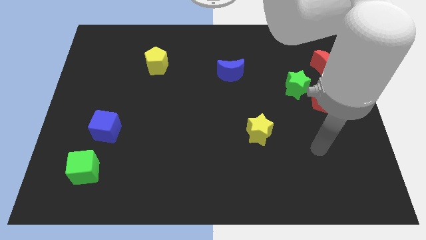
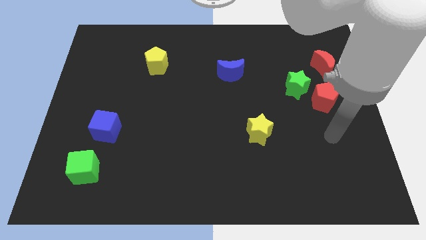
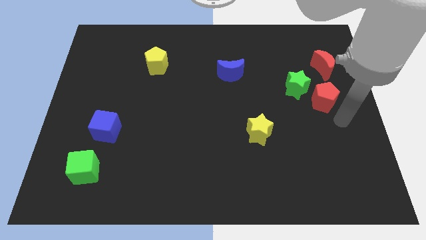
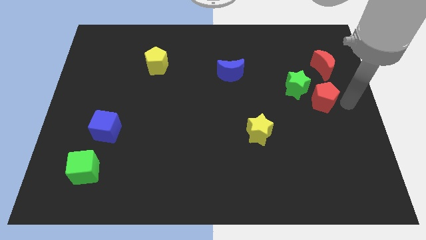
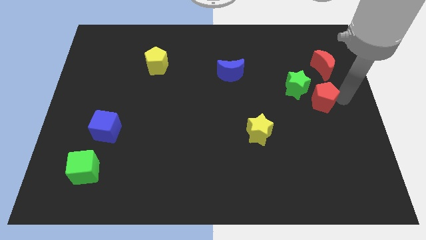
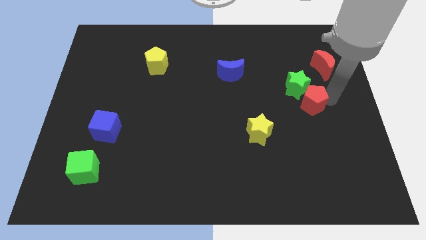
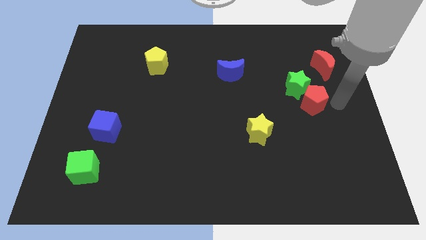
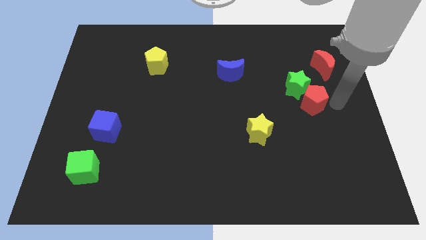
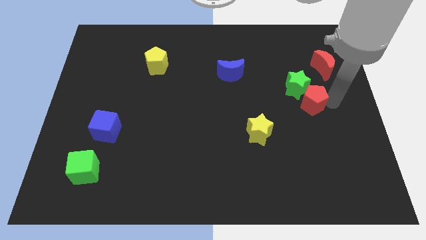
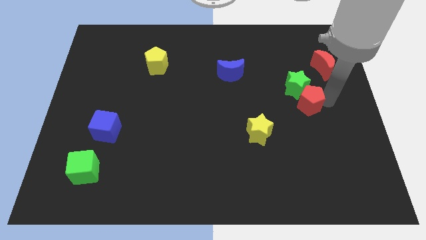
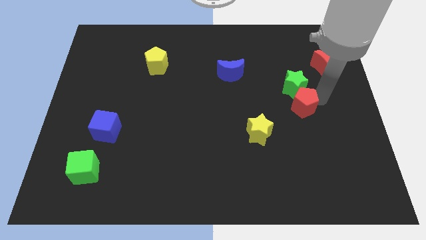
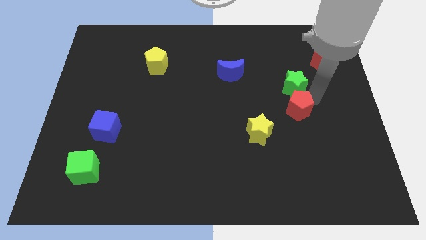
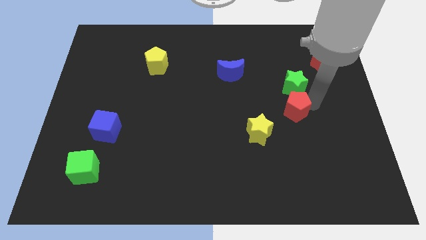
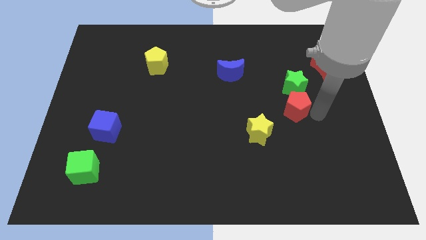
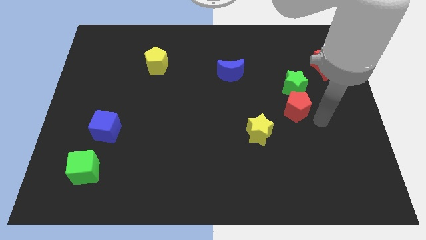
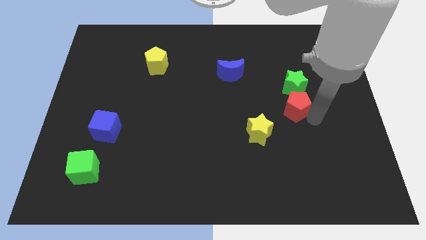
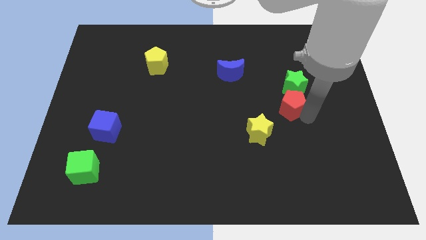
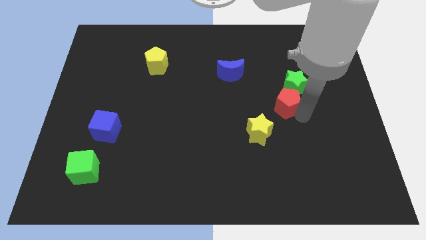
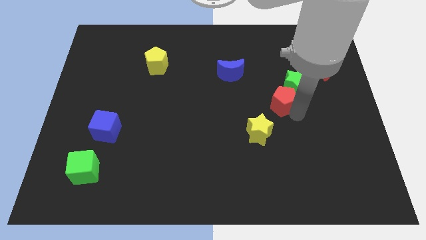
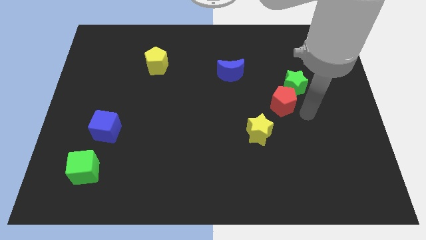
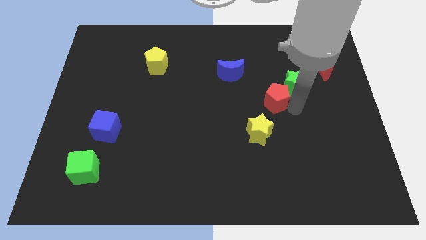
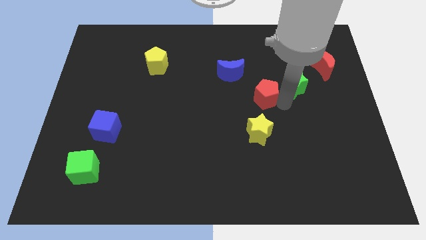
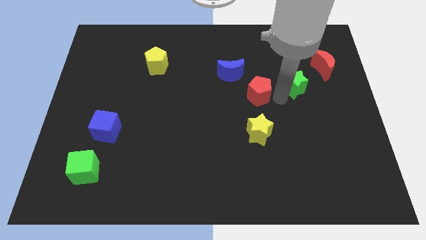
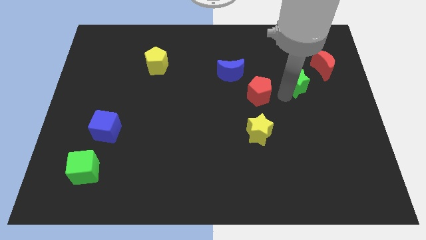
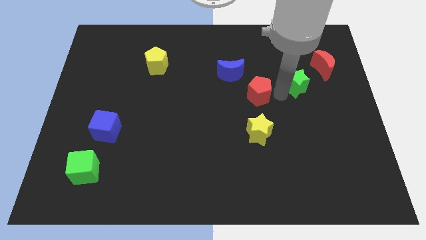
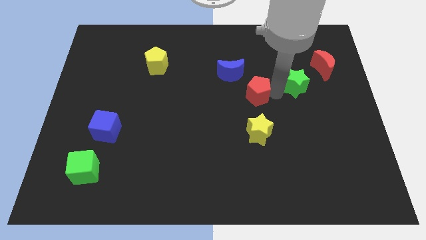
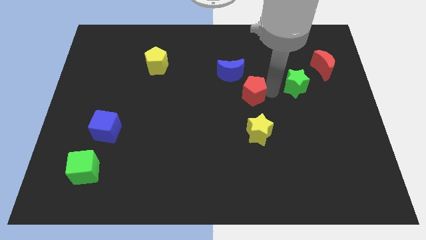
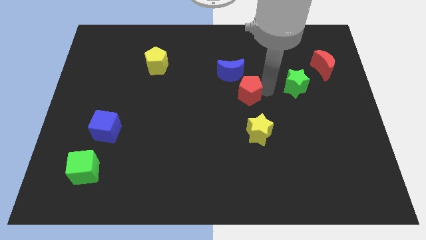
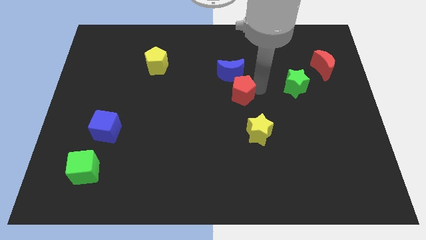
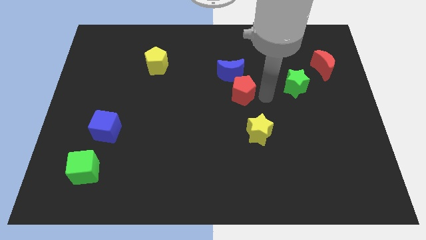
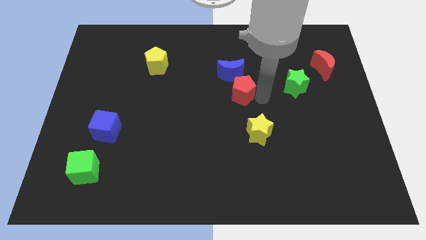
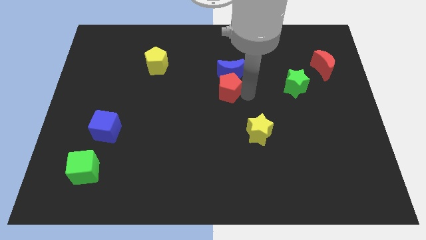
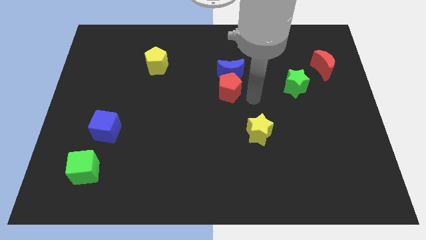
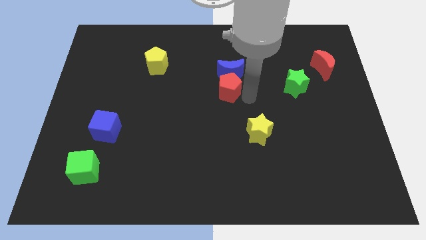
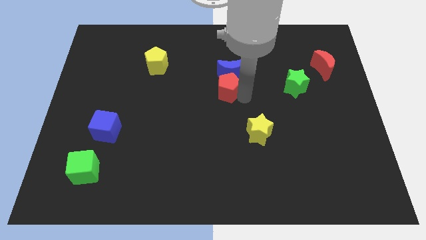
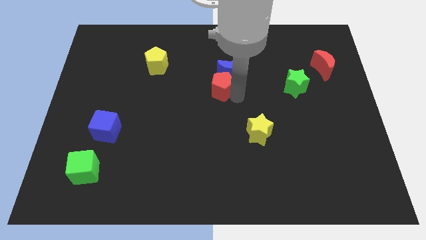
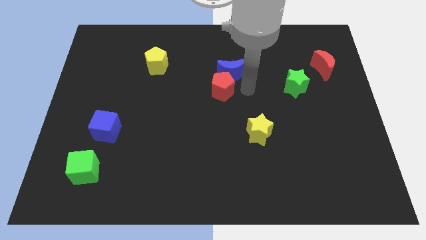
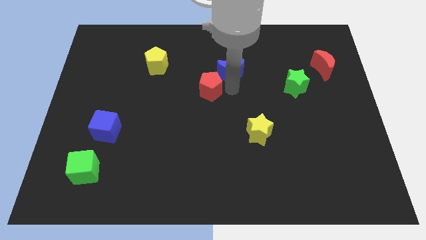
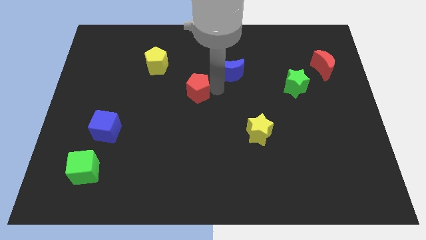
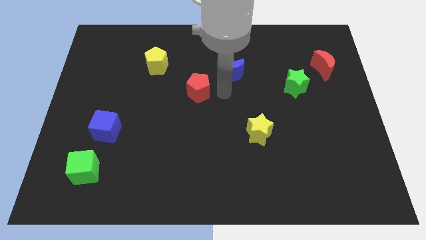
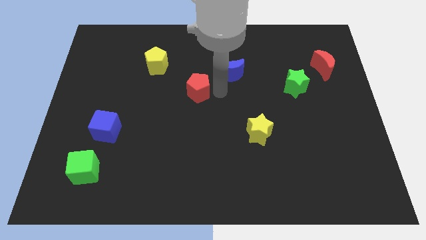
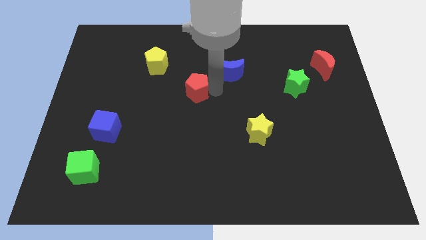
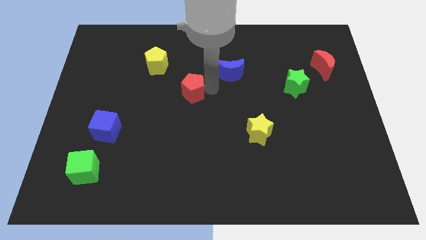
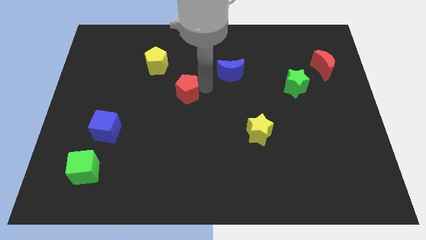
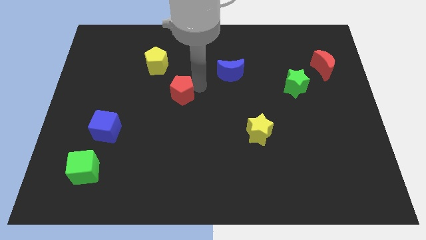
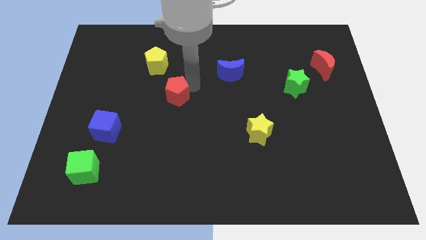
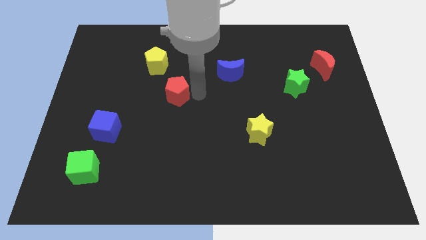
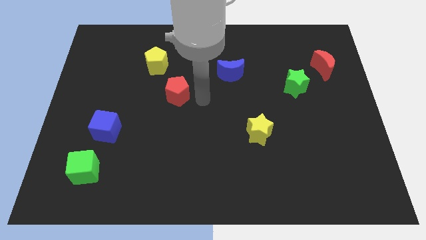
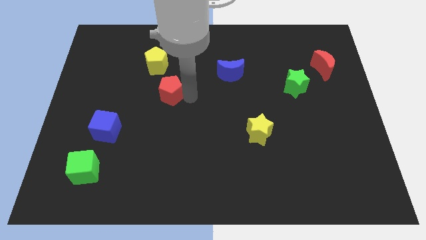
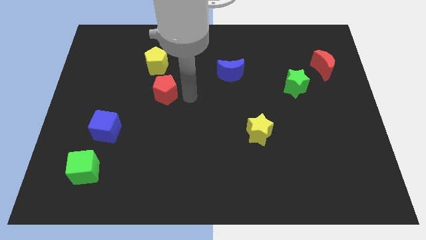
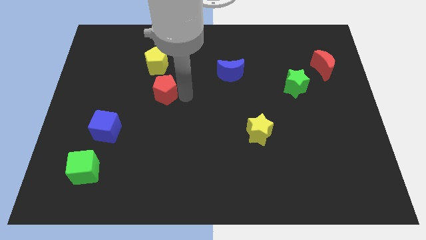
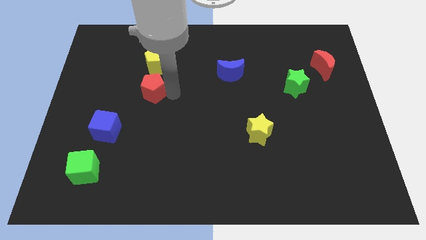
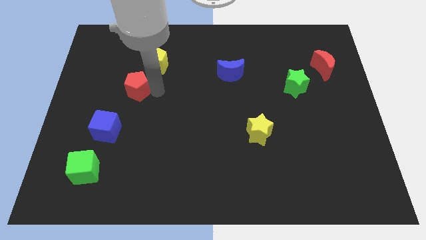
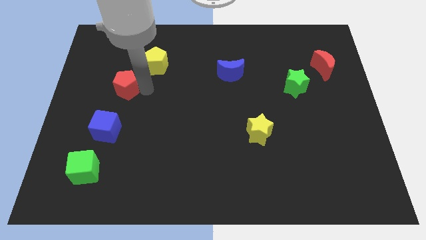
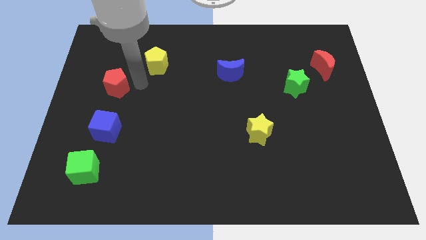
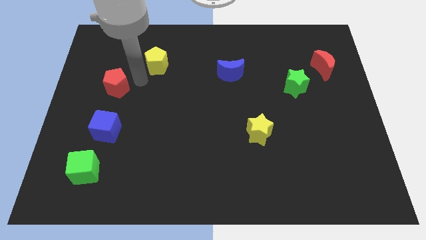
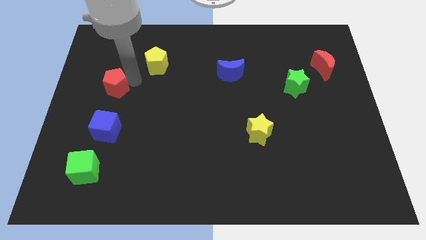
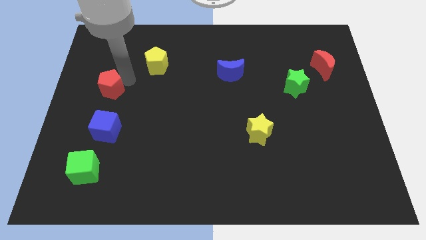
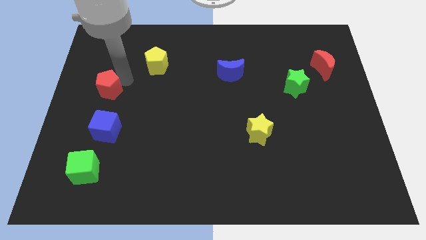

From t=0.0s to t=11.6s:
push the red pentagon to the center left

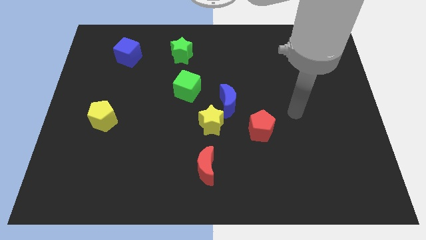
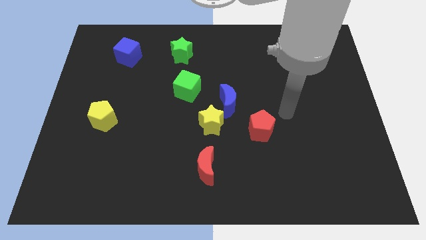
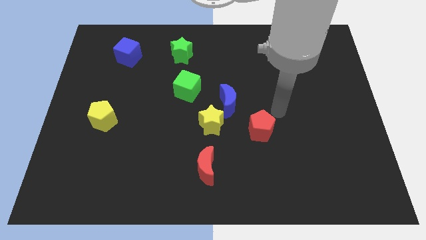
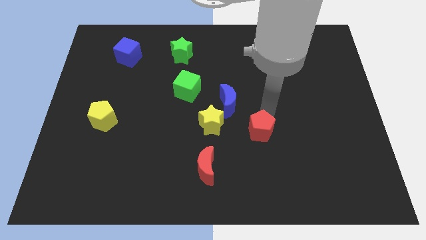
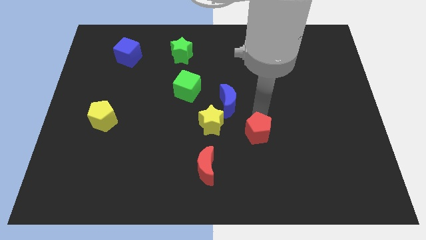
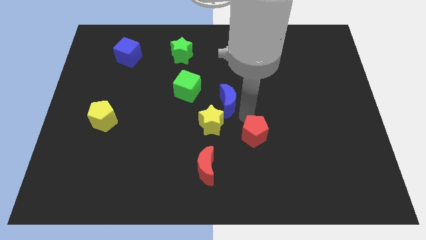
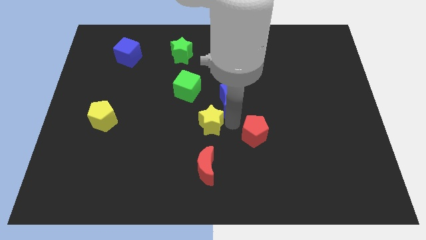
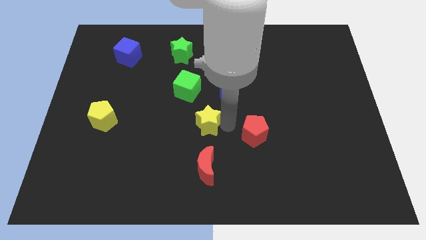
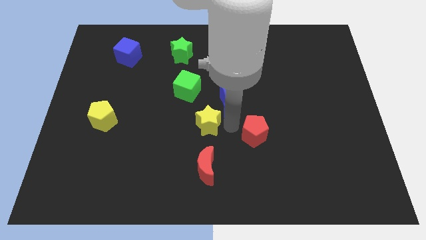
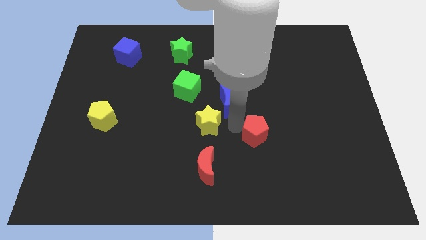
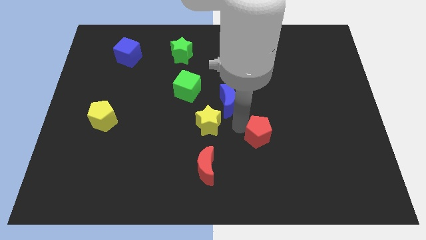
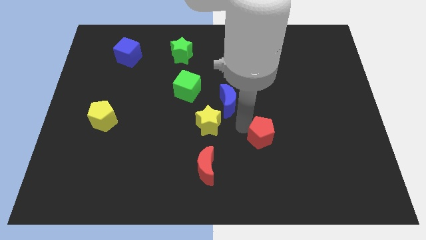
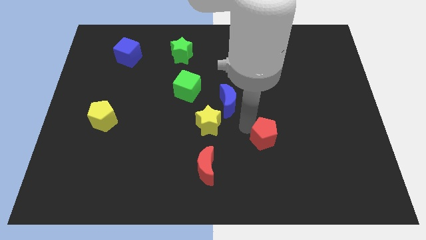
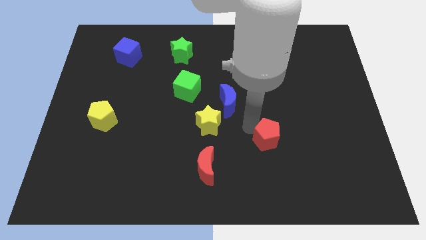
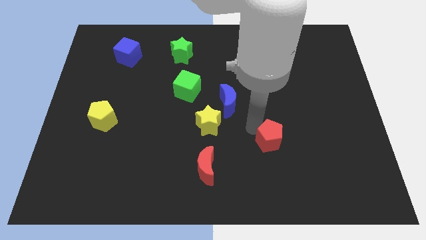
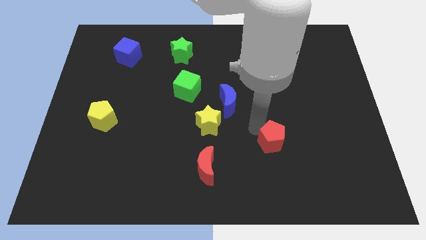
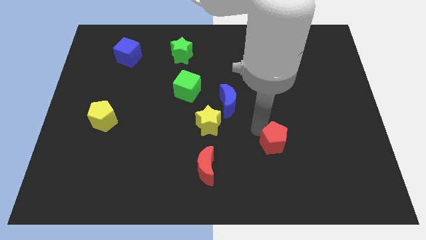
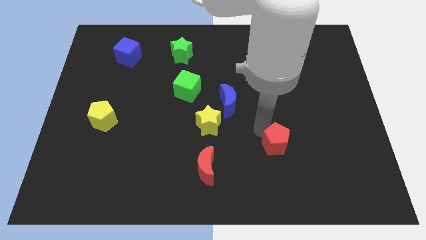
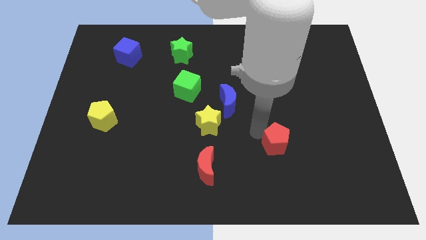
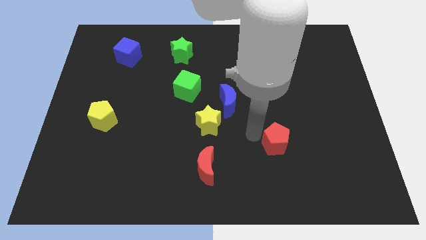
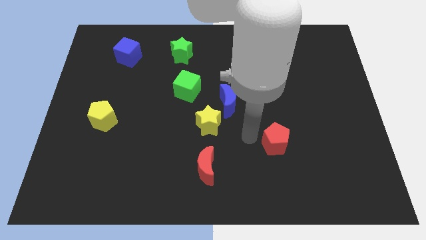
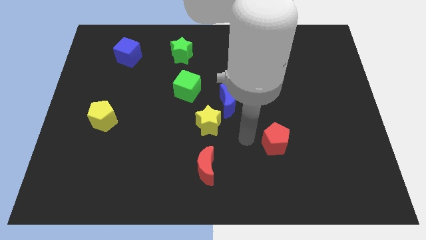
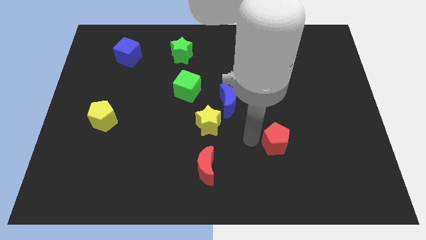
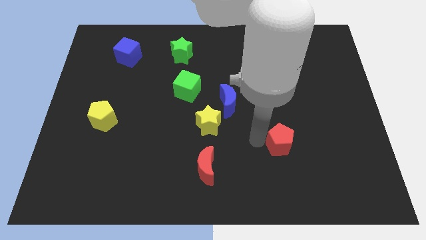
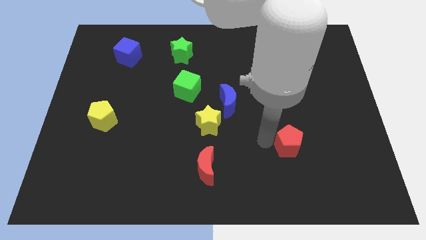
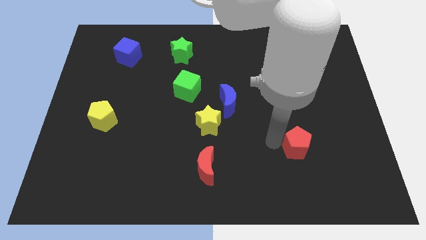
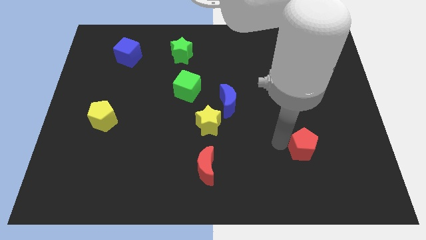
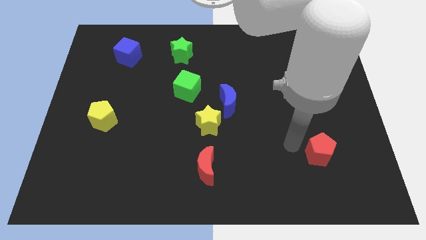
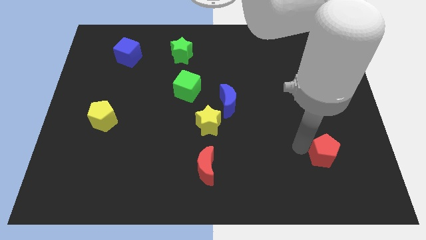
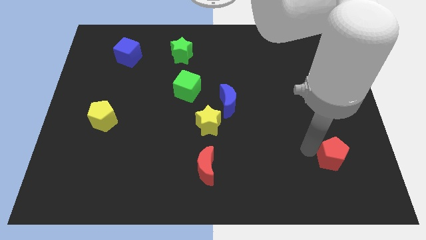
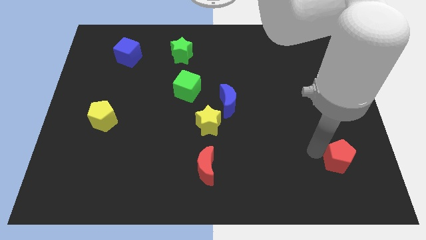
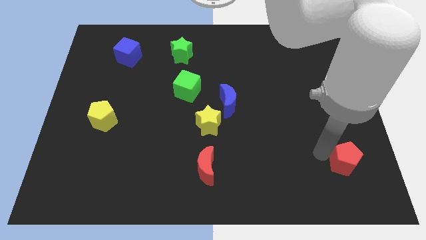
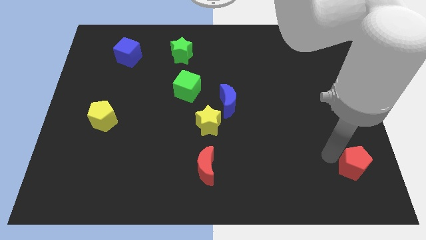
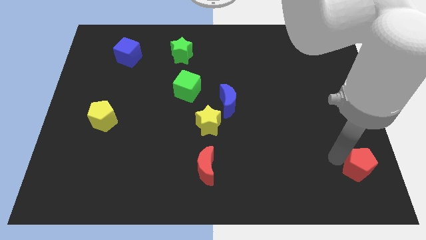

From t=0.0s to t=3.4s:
put the red pentagon to the bottom right
